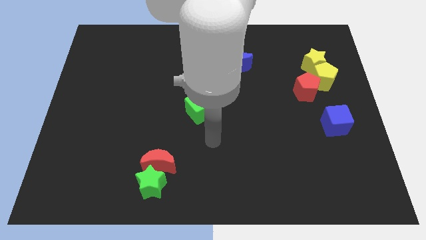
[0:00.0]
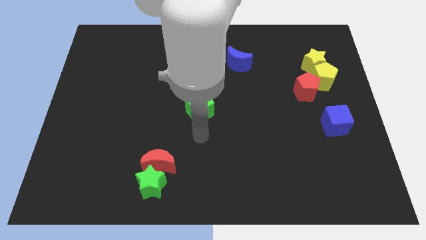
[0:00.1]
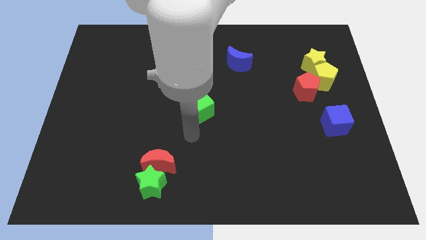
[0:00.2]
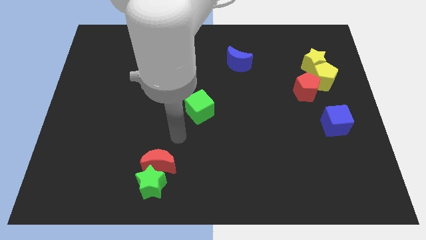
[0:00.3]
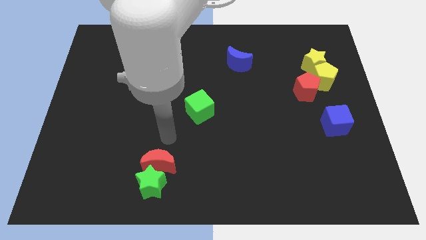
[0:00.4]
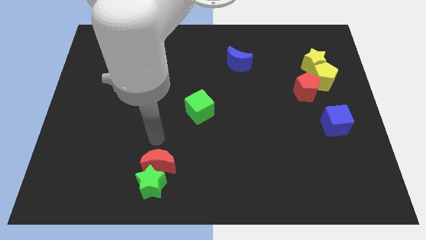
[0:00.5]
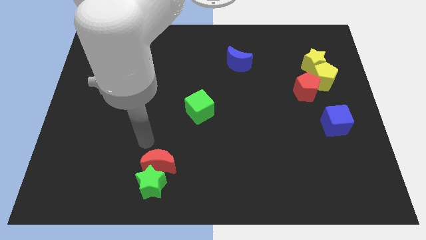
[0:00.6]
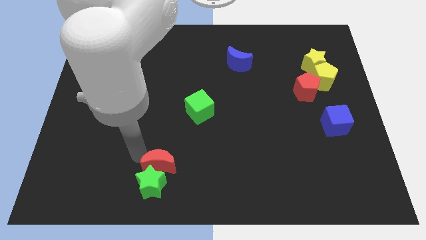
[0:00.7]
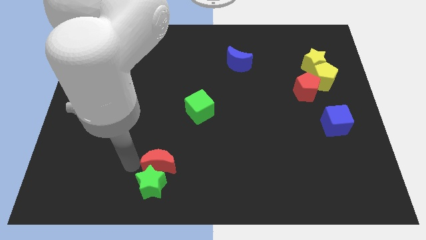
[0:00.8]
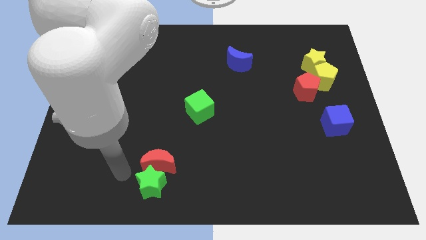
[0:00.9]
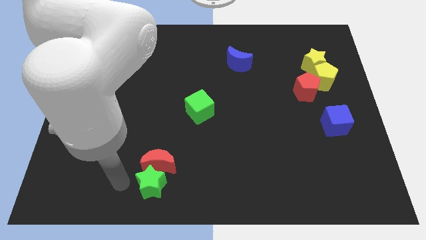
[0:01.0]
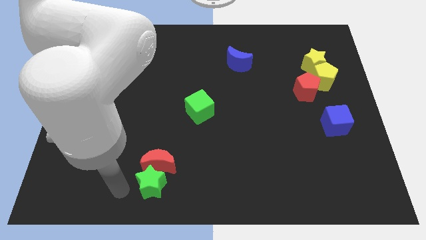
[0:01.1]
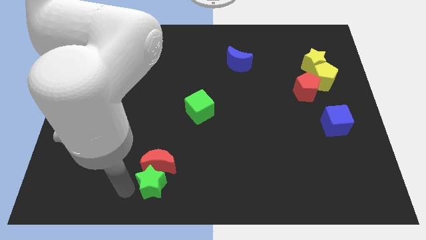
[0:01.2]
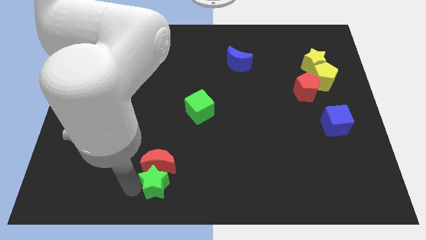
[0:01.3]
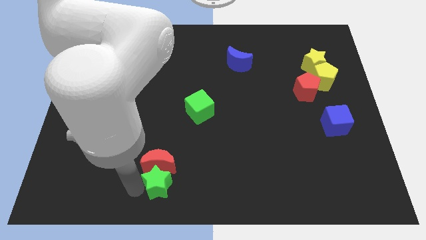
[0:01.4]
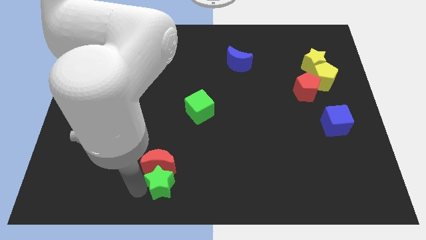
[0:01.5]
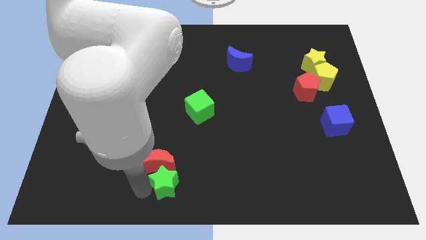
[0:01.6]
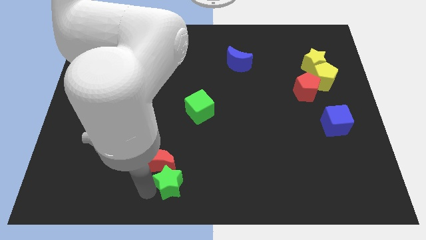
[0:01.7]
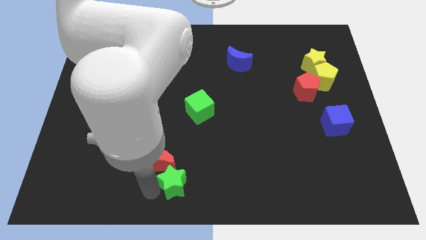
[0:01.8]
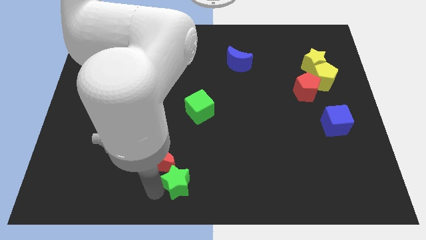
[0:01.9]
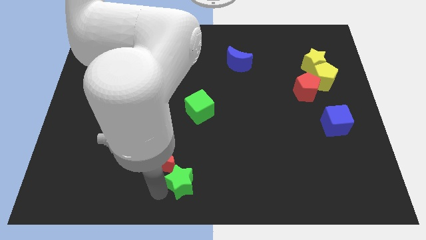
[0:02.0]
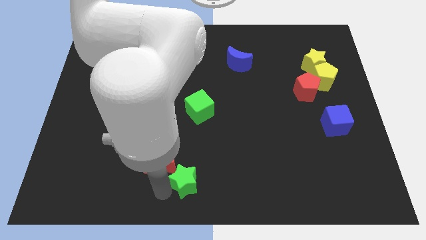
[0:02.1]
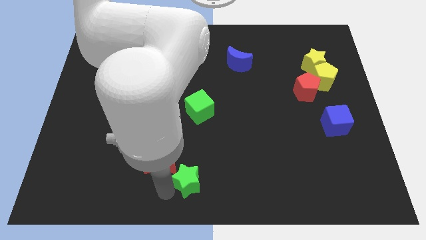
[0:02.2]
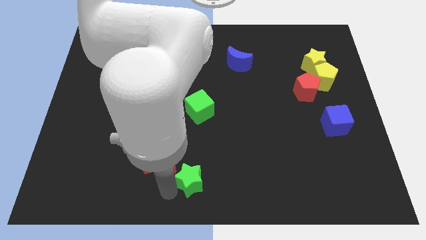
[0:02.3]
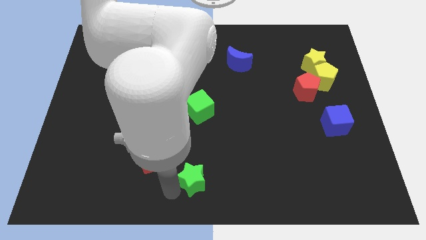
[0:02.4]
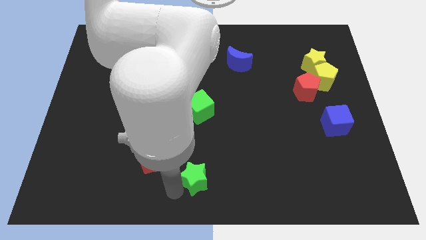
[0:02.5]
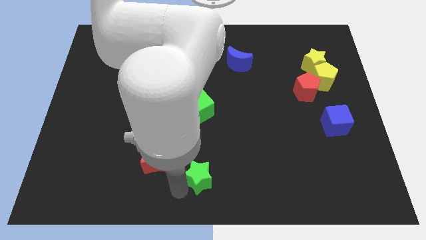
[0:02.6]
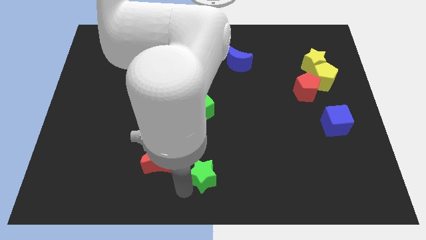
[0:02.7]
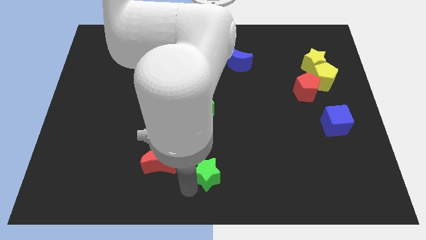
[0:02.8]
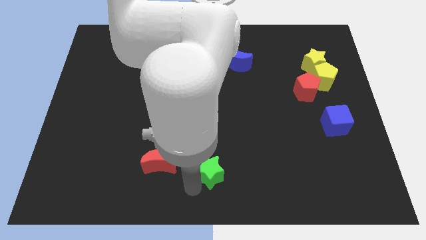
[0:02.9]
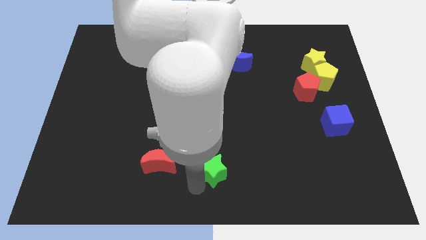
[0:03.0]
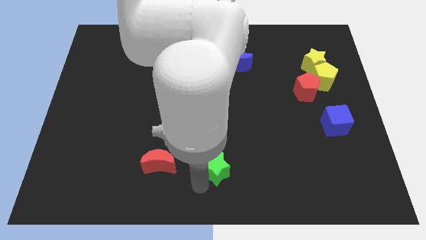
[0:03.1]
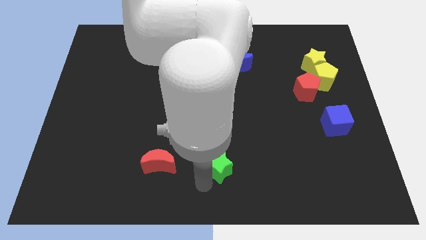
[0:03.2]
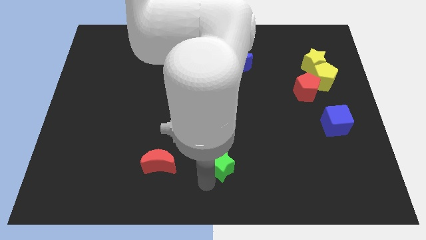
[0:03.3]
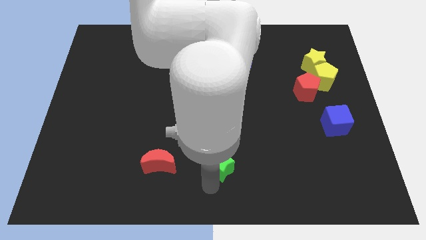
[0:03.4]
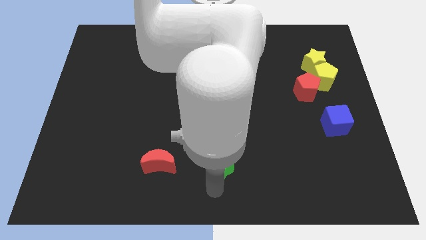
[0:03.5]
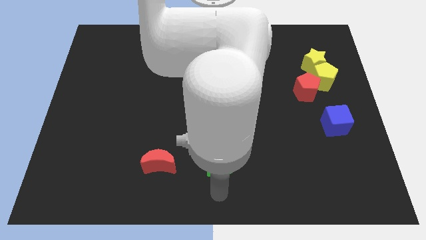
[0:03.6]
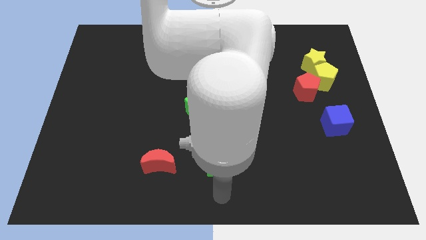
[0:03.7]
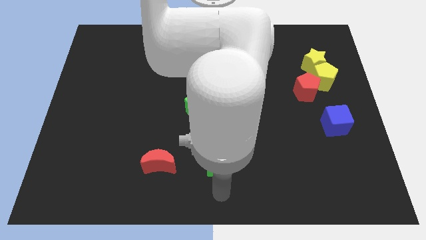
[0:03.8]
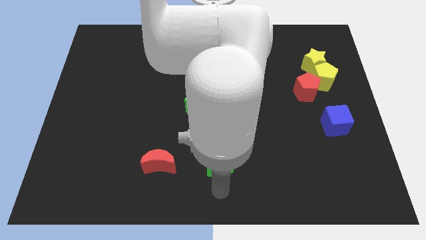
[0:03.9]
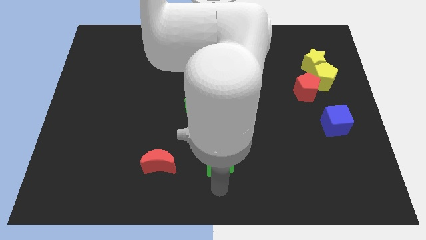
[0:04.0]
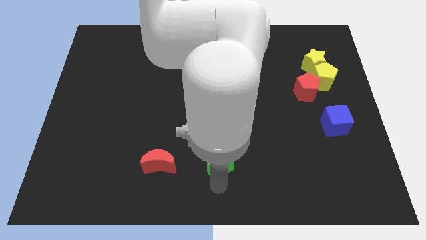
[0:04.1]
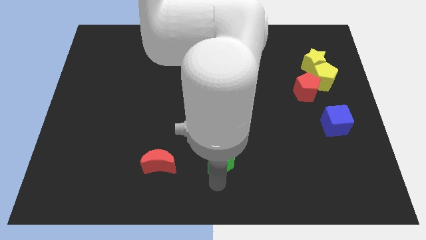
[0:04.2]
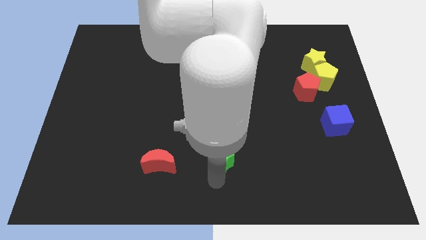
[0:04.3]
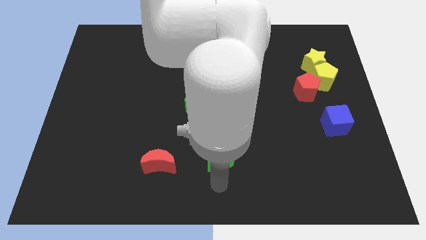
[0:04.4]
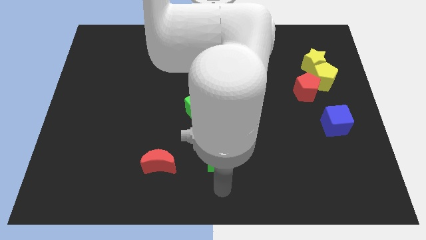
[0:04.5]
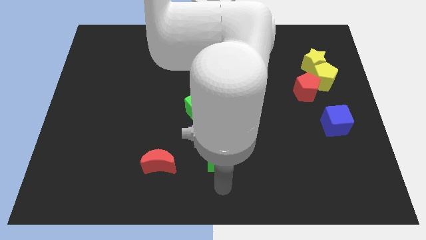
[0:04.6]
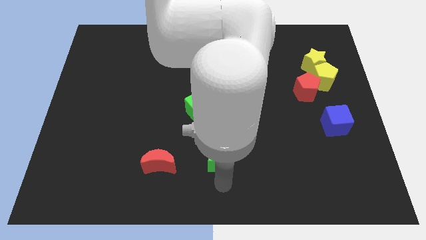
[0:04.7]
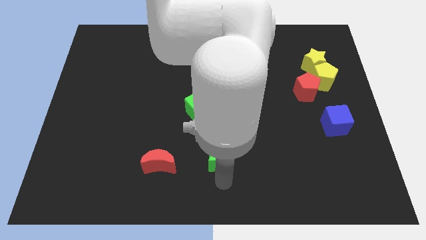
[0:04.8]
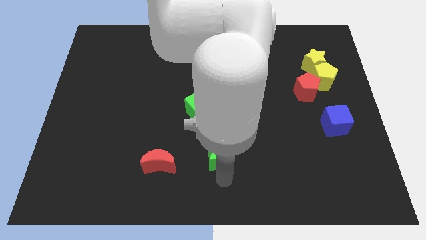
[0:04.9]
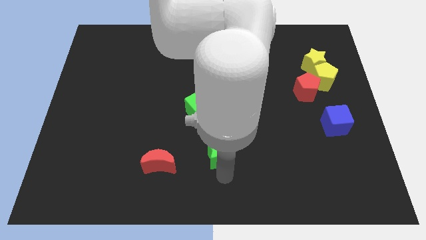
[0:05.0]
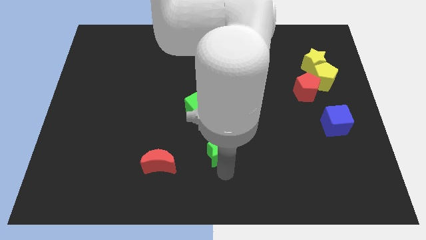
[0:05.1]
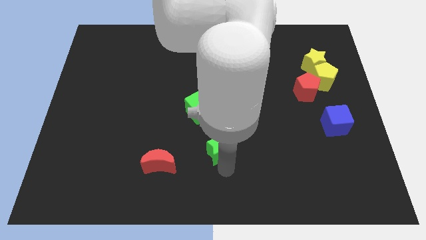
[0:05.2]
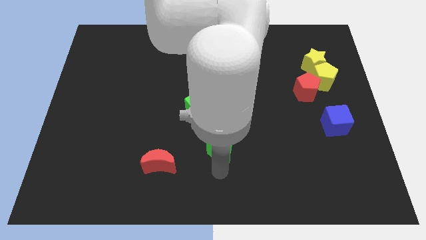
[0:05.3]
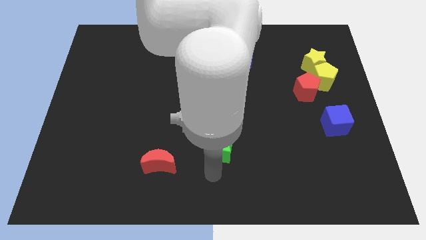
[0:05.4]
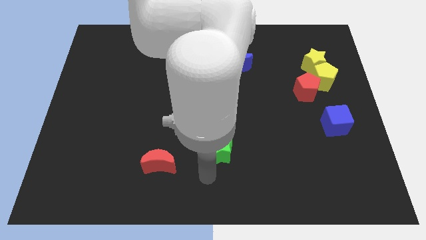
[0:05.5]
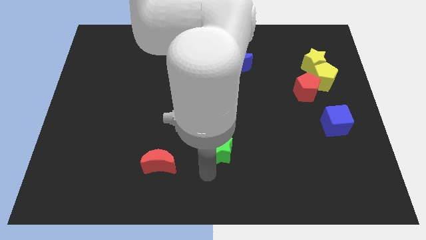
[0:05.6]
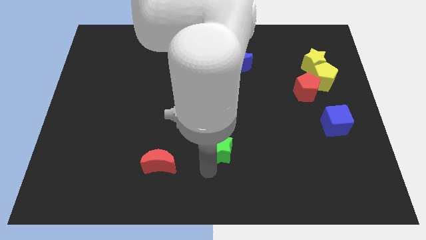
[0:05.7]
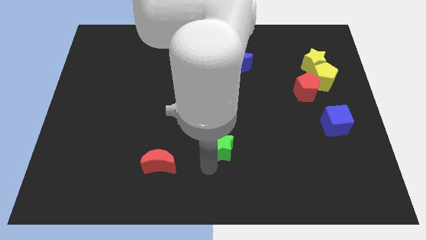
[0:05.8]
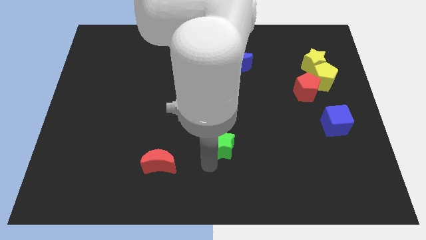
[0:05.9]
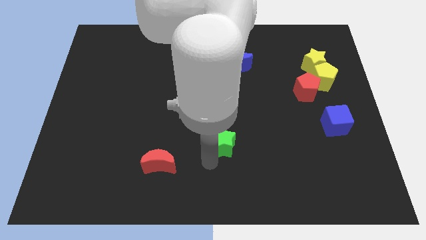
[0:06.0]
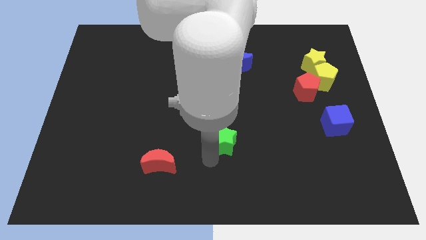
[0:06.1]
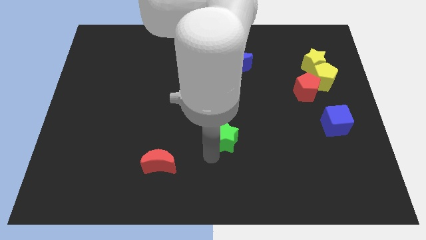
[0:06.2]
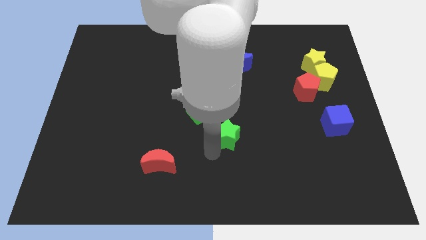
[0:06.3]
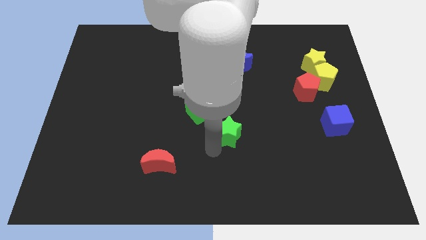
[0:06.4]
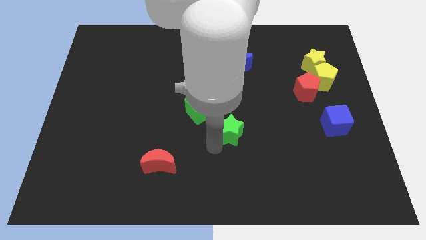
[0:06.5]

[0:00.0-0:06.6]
push the green star upwards and right

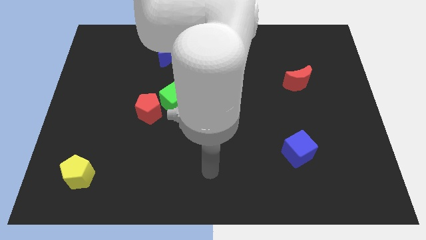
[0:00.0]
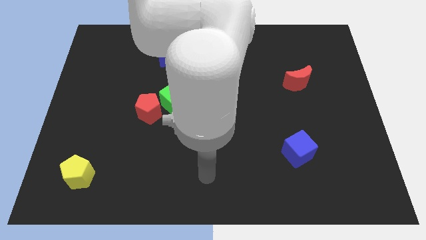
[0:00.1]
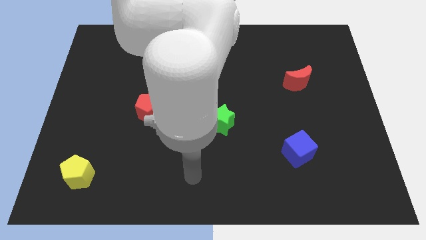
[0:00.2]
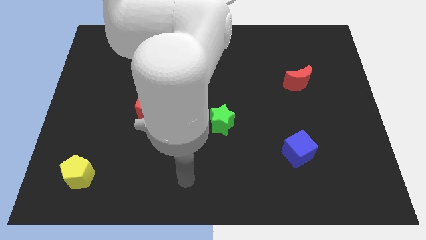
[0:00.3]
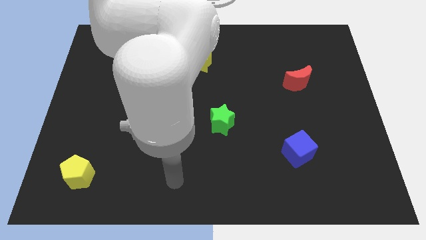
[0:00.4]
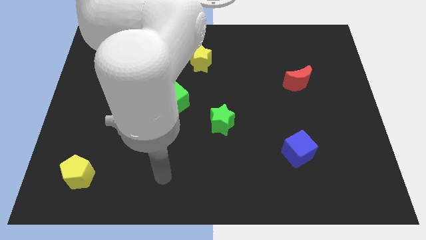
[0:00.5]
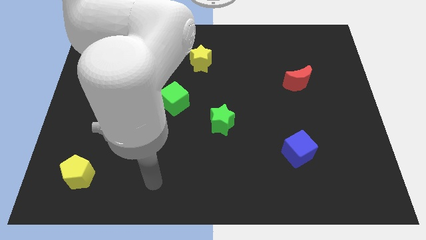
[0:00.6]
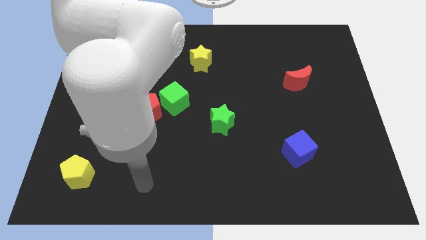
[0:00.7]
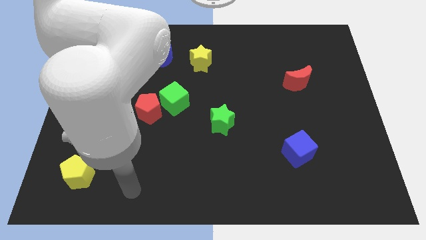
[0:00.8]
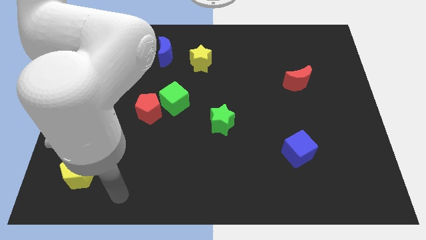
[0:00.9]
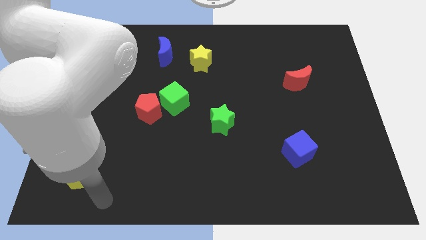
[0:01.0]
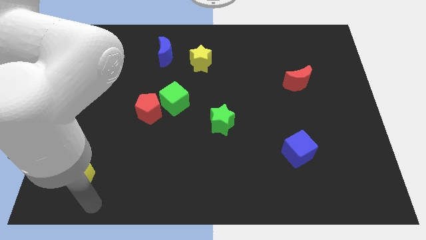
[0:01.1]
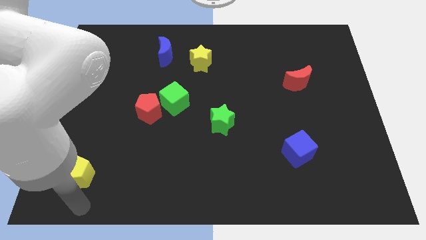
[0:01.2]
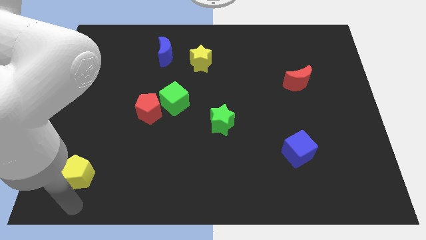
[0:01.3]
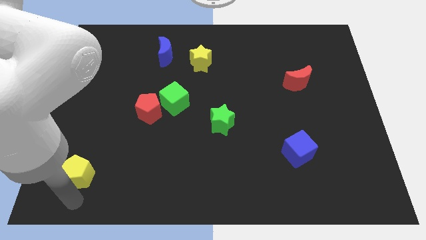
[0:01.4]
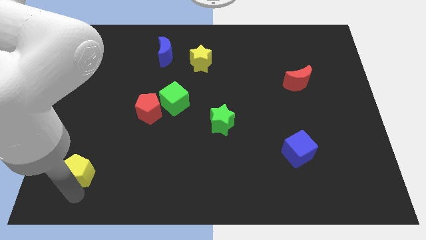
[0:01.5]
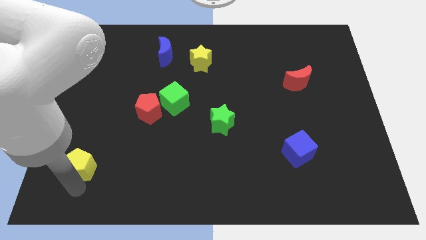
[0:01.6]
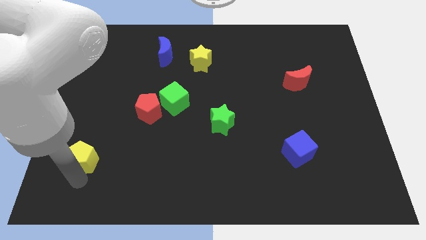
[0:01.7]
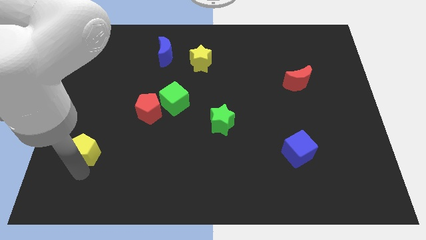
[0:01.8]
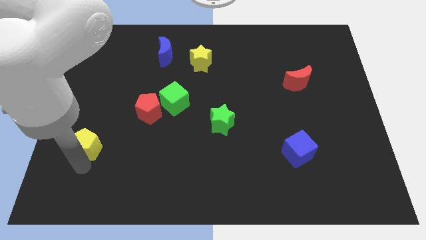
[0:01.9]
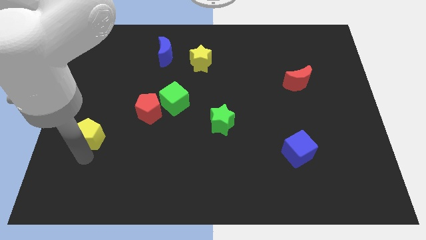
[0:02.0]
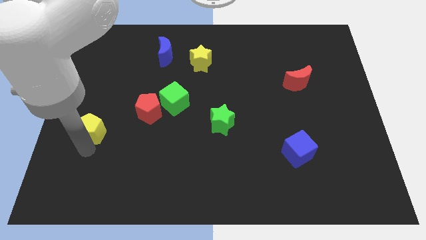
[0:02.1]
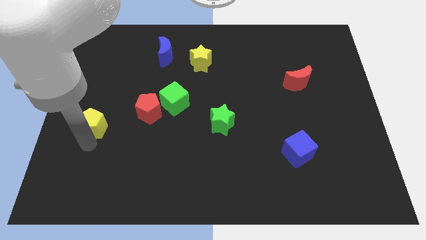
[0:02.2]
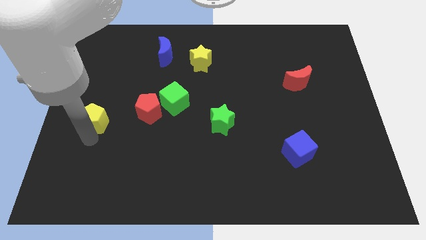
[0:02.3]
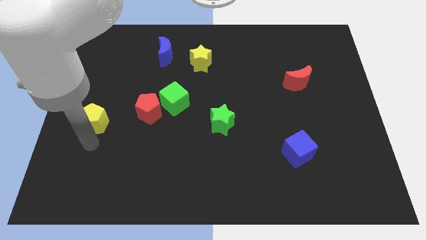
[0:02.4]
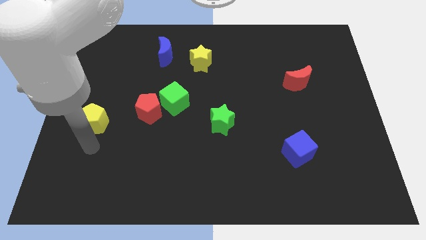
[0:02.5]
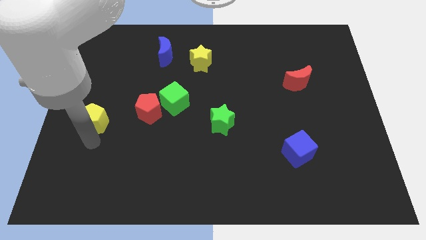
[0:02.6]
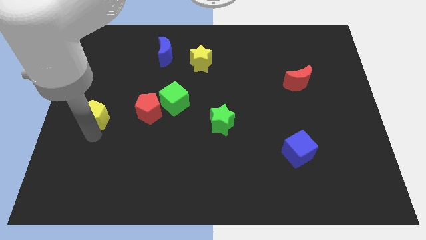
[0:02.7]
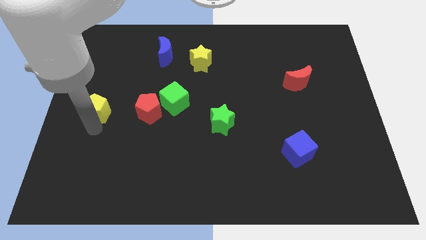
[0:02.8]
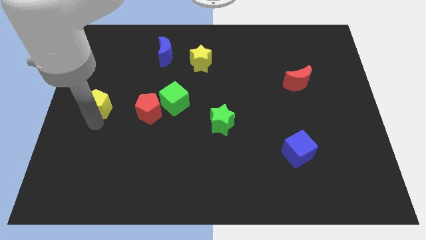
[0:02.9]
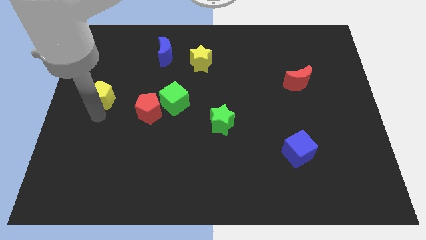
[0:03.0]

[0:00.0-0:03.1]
move the yellow pentagon up
